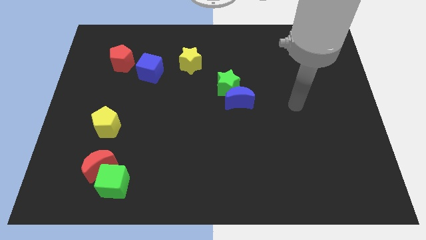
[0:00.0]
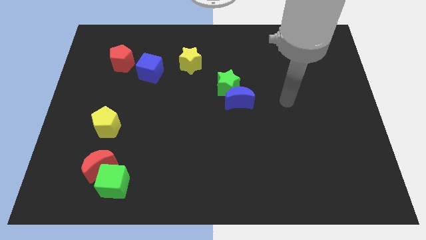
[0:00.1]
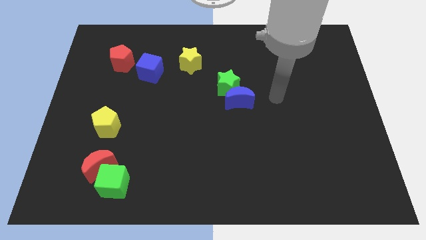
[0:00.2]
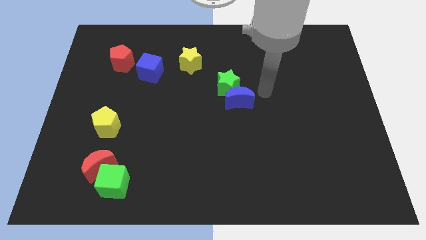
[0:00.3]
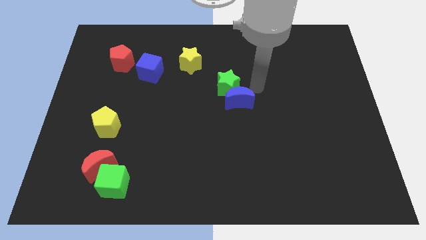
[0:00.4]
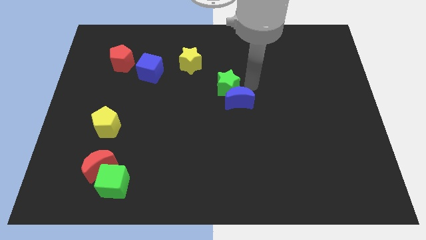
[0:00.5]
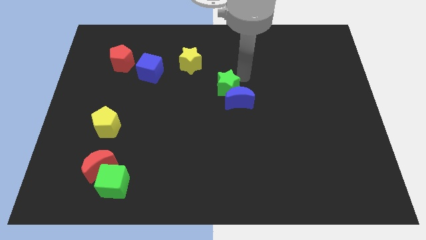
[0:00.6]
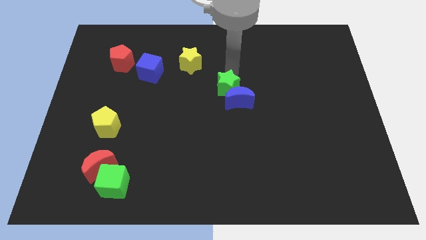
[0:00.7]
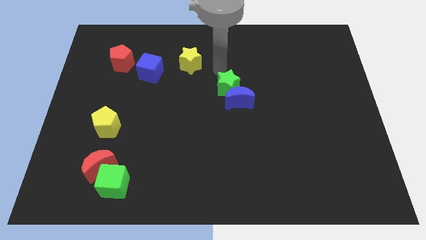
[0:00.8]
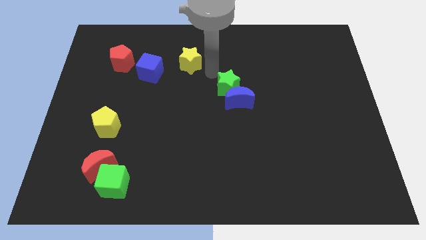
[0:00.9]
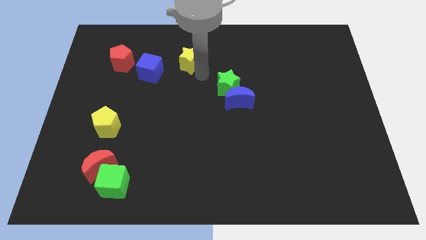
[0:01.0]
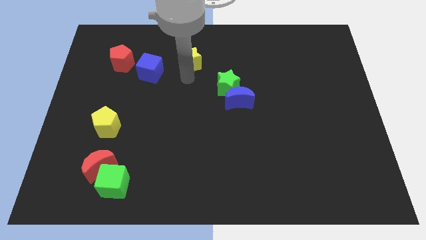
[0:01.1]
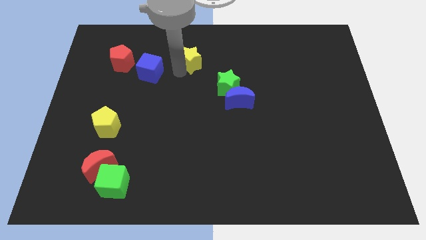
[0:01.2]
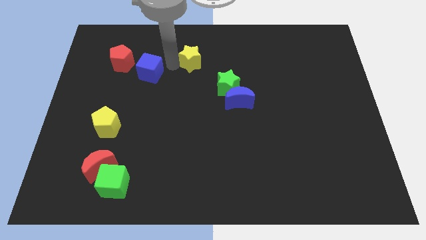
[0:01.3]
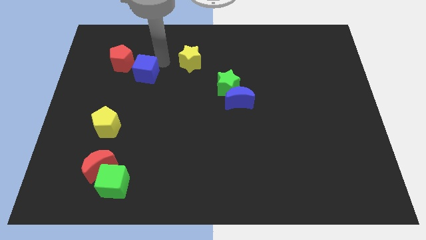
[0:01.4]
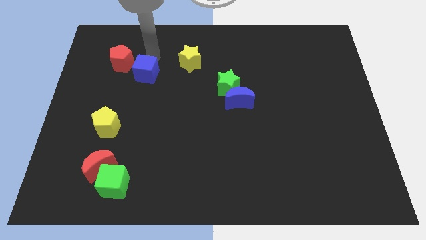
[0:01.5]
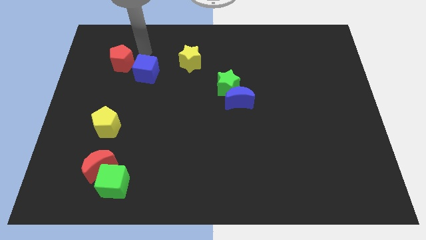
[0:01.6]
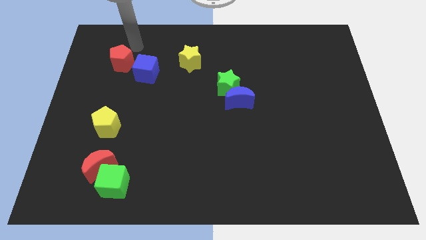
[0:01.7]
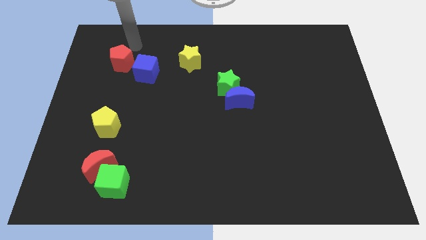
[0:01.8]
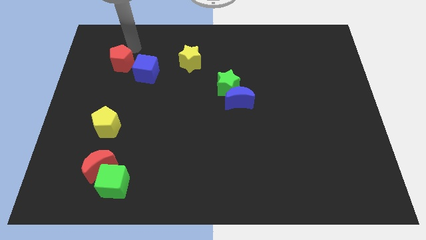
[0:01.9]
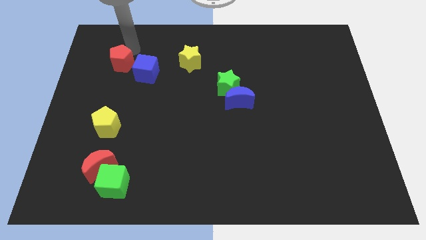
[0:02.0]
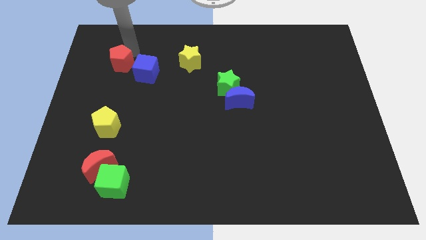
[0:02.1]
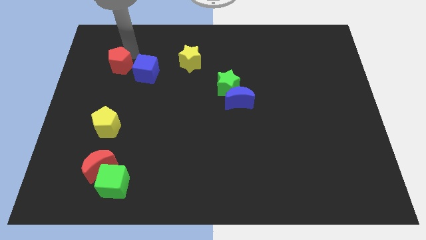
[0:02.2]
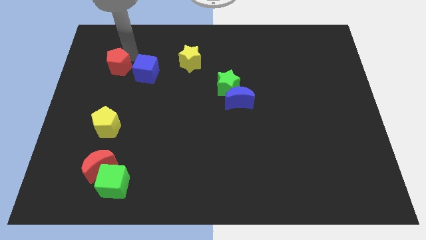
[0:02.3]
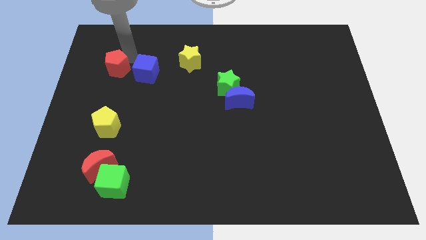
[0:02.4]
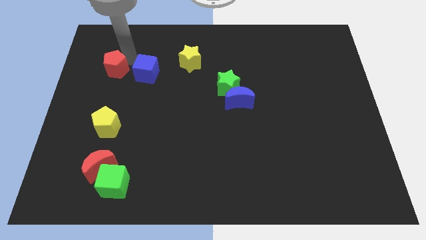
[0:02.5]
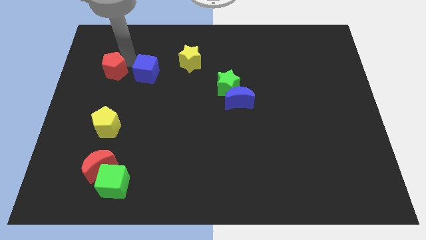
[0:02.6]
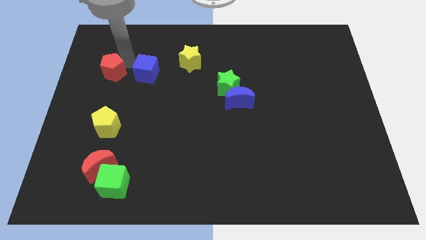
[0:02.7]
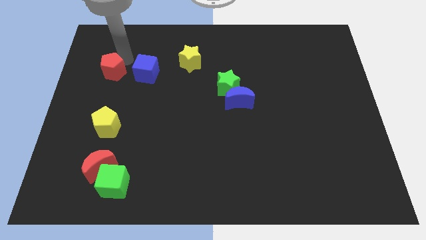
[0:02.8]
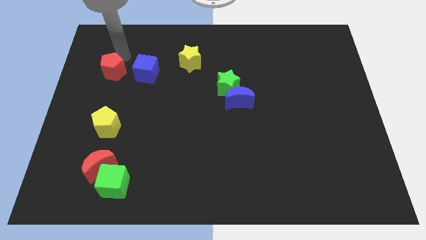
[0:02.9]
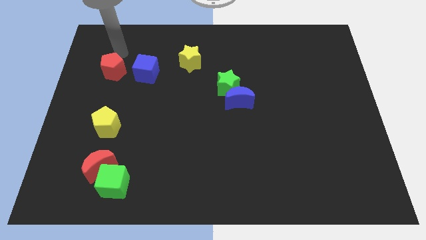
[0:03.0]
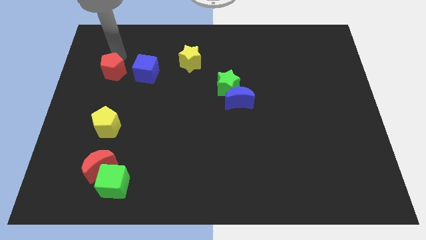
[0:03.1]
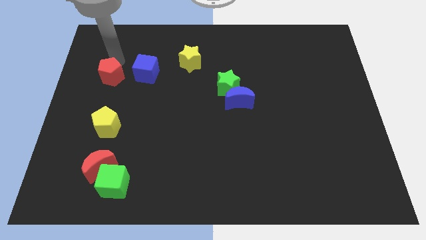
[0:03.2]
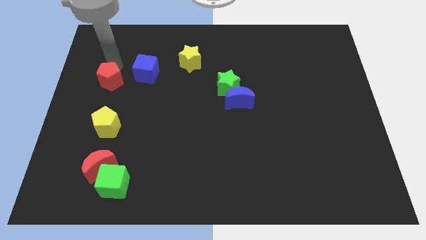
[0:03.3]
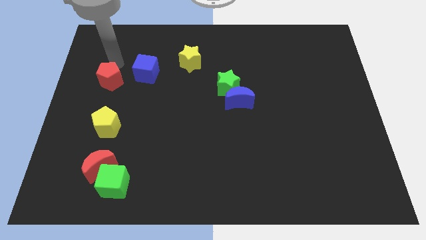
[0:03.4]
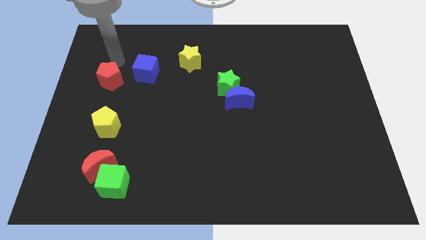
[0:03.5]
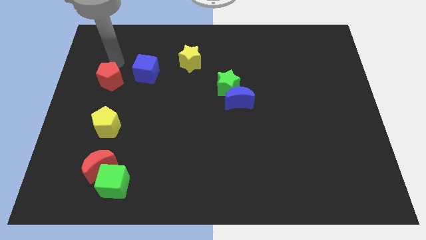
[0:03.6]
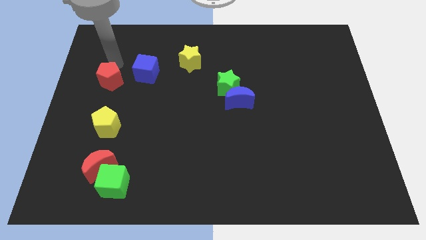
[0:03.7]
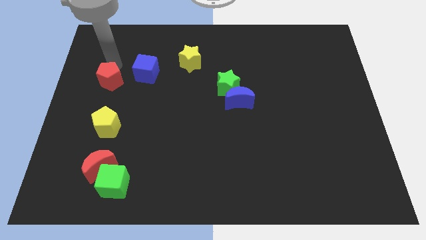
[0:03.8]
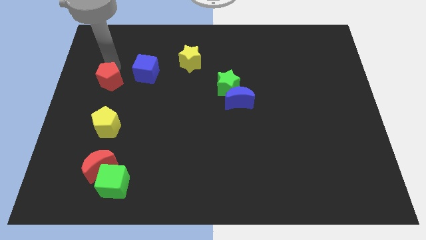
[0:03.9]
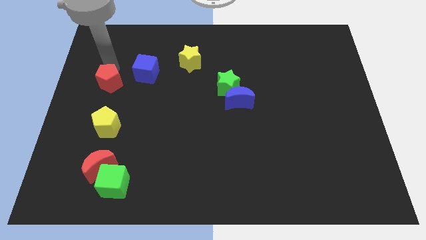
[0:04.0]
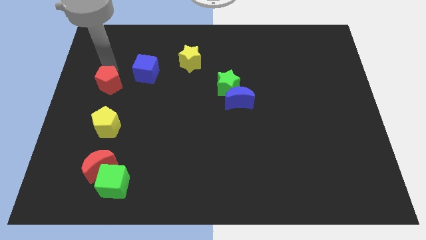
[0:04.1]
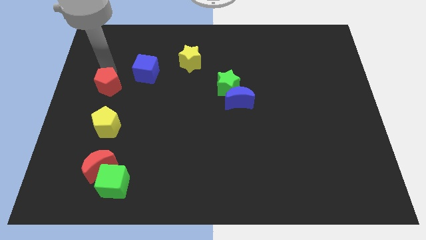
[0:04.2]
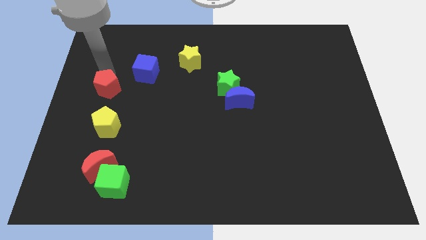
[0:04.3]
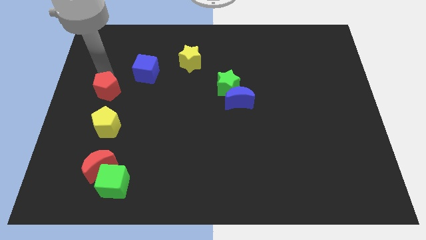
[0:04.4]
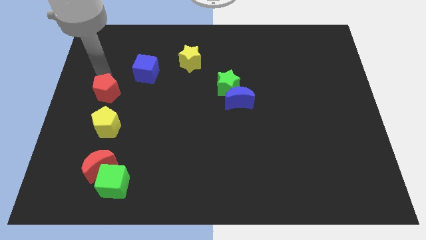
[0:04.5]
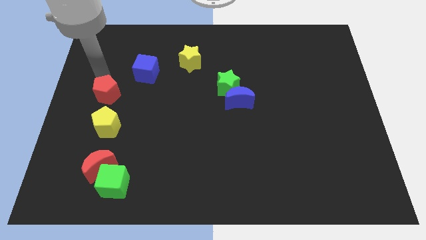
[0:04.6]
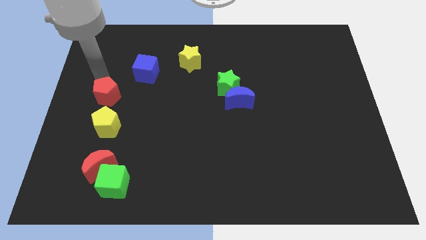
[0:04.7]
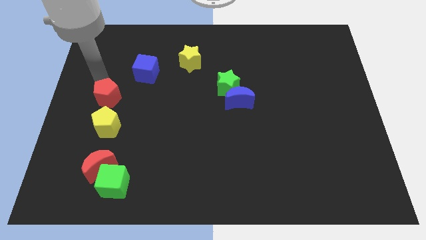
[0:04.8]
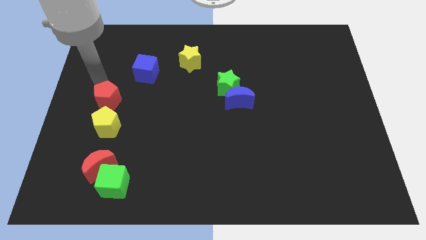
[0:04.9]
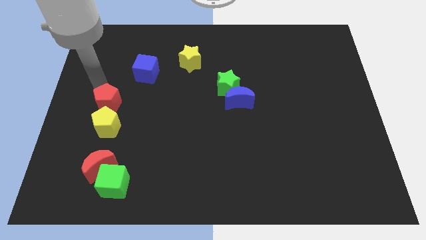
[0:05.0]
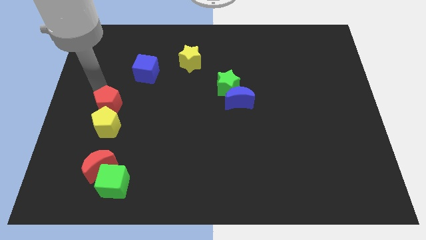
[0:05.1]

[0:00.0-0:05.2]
slide the red pentagon to the yellow pentagon
